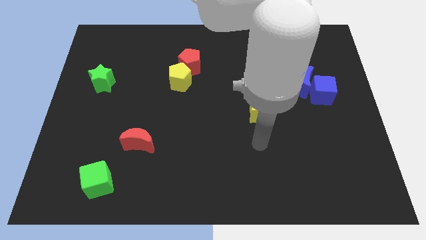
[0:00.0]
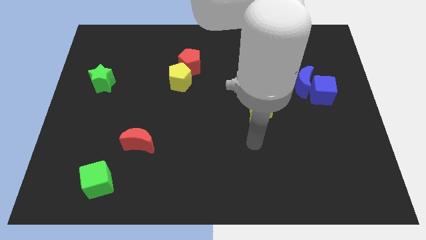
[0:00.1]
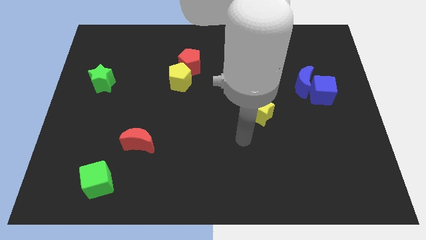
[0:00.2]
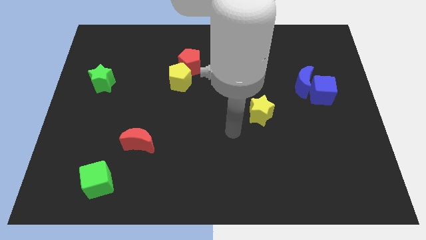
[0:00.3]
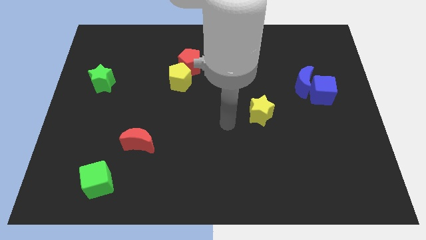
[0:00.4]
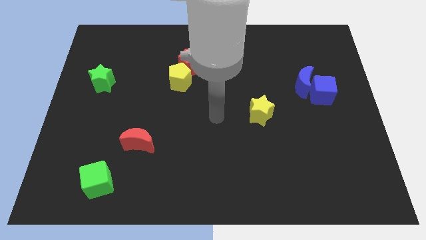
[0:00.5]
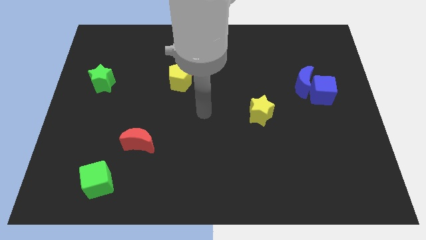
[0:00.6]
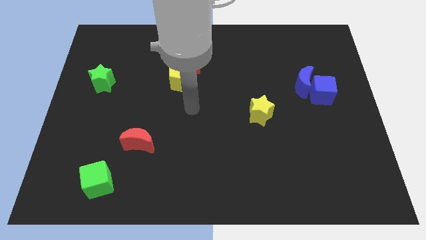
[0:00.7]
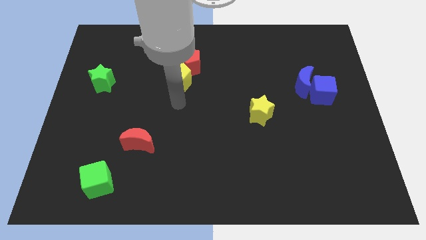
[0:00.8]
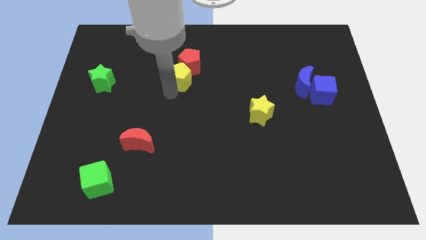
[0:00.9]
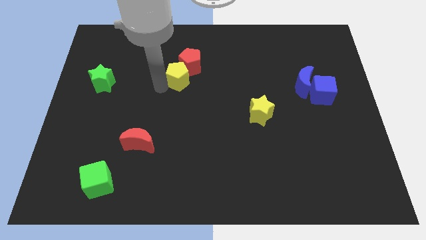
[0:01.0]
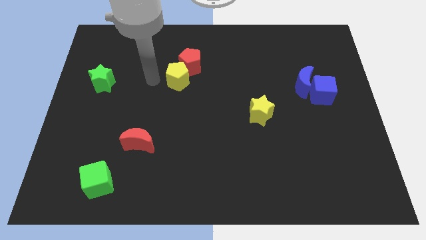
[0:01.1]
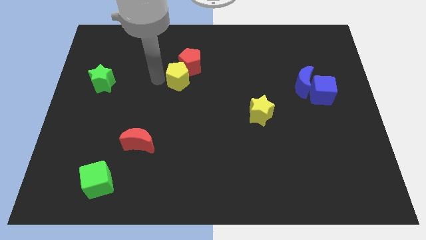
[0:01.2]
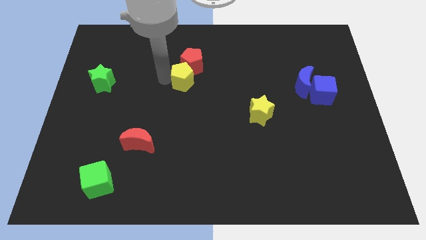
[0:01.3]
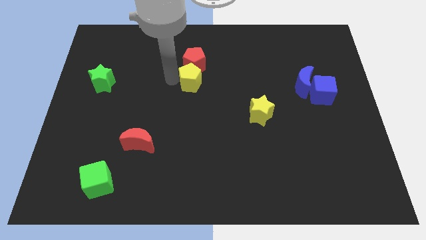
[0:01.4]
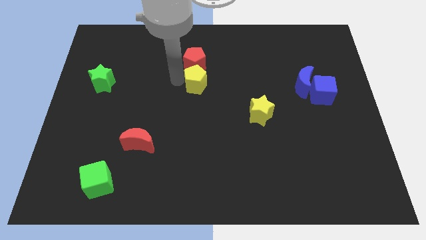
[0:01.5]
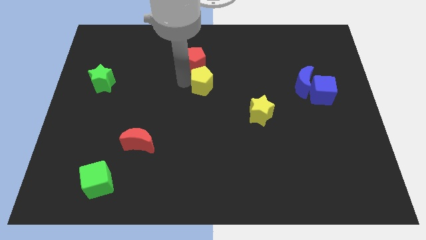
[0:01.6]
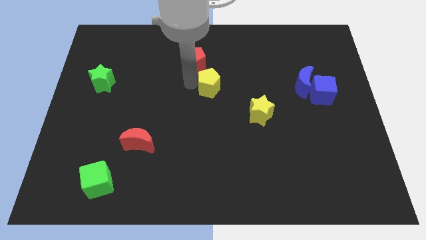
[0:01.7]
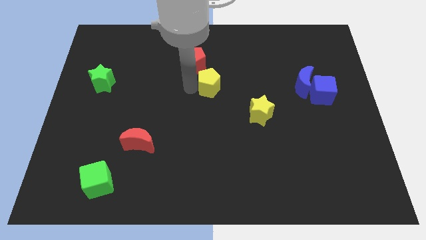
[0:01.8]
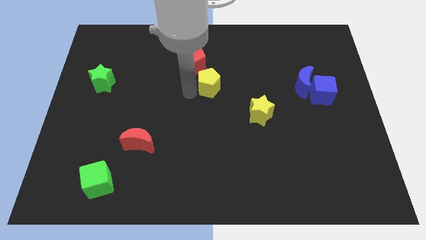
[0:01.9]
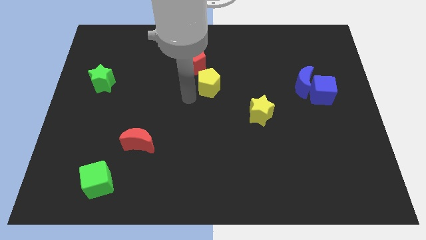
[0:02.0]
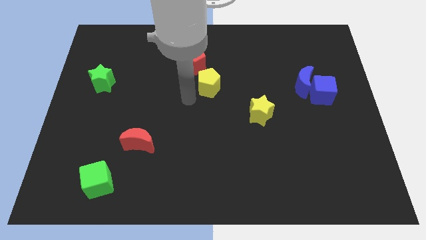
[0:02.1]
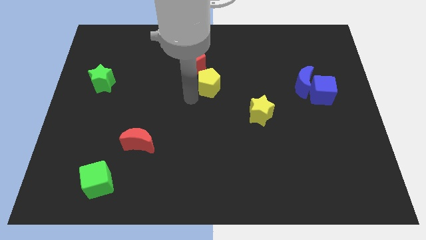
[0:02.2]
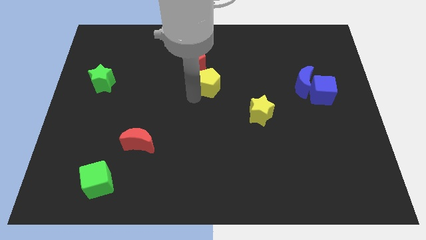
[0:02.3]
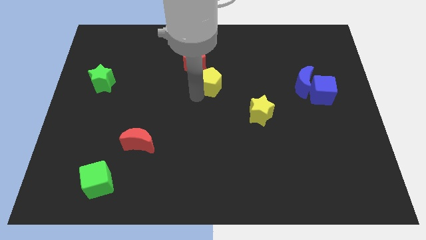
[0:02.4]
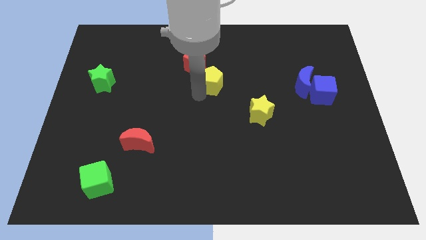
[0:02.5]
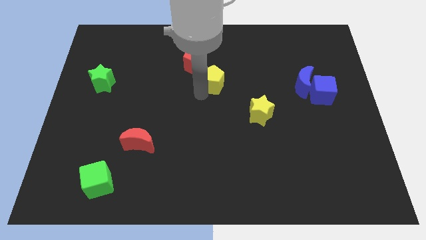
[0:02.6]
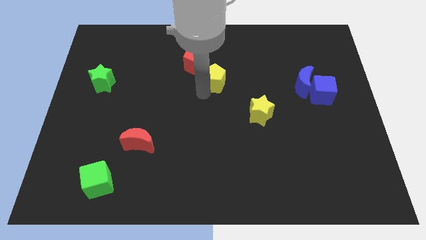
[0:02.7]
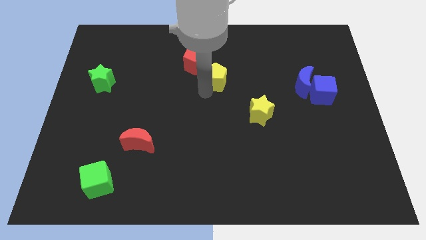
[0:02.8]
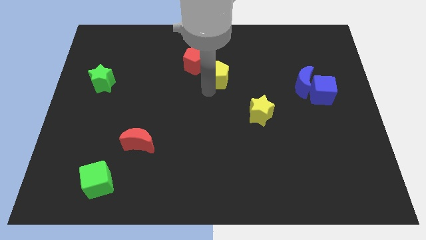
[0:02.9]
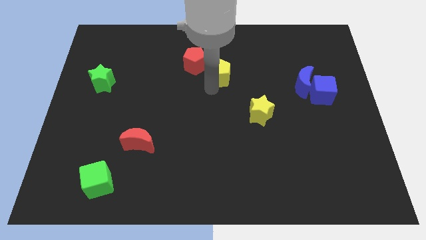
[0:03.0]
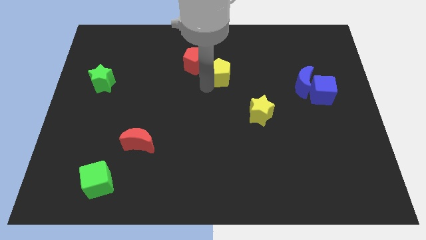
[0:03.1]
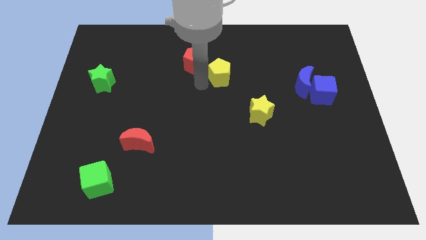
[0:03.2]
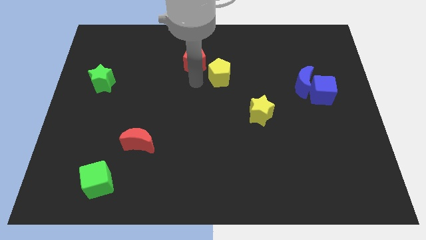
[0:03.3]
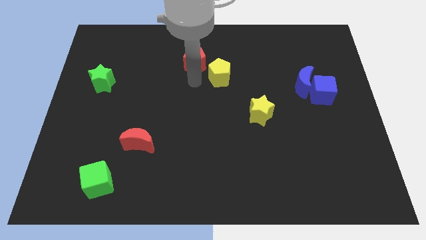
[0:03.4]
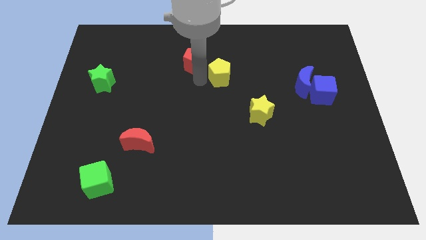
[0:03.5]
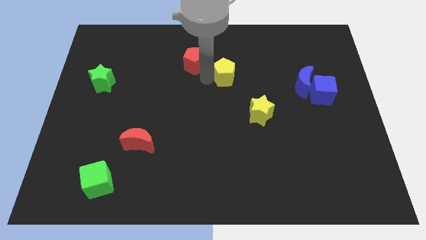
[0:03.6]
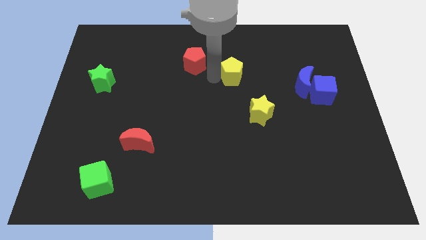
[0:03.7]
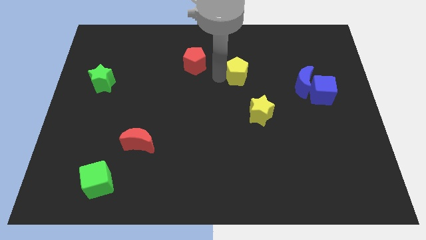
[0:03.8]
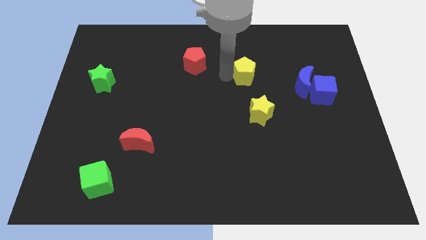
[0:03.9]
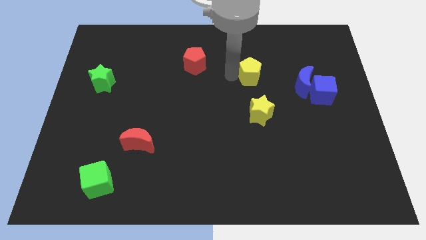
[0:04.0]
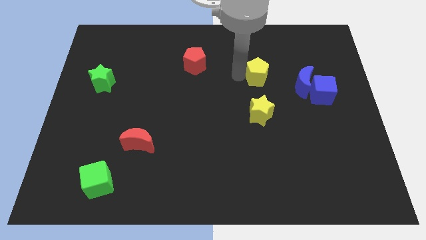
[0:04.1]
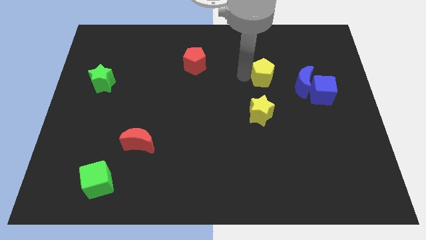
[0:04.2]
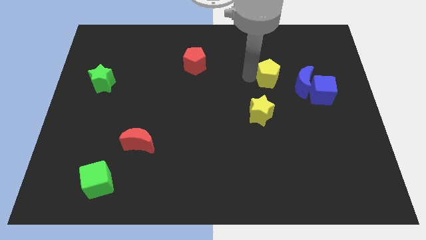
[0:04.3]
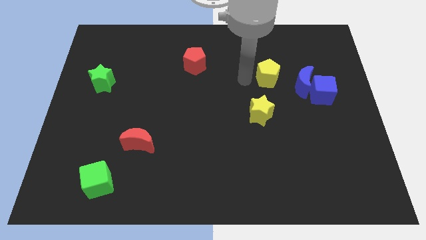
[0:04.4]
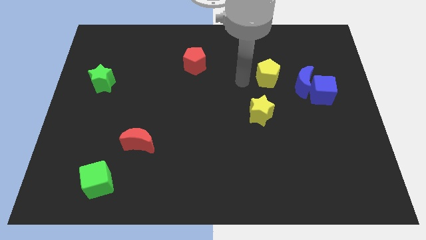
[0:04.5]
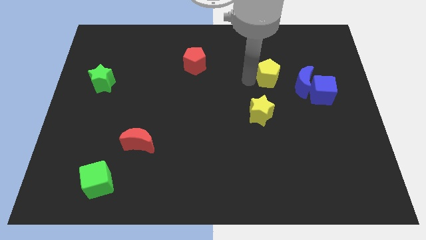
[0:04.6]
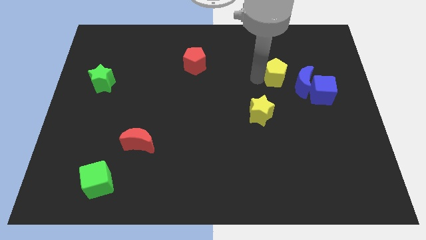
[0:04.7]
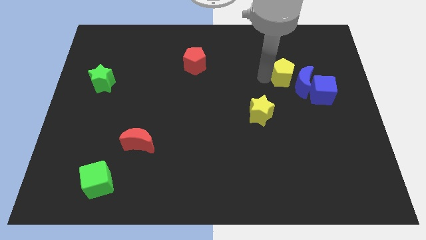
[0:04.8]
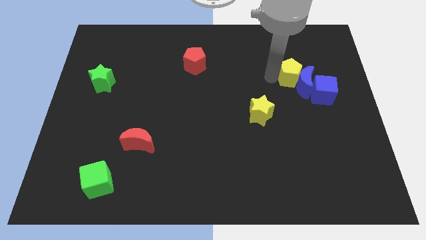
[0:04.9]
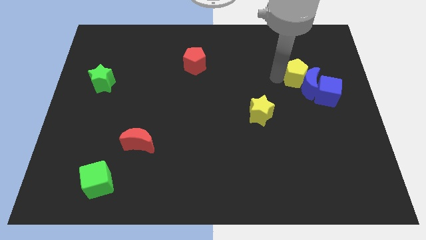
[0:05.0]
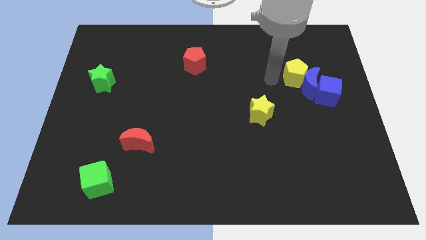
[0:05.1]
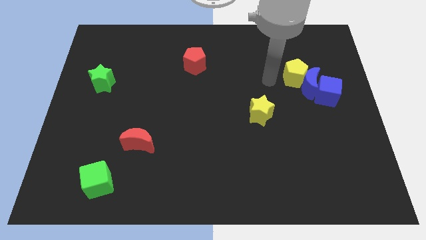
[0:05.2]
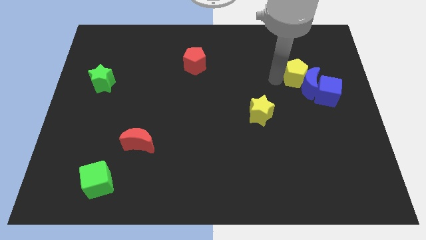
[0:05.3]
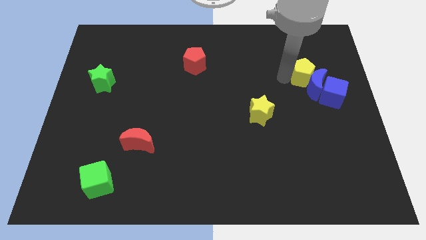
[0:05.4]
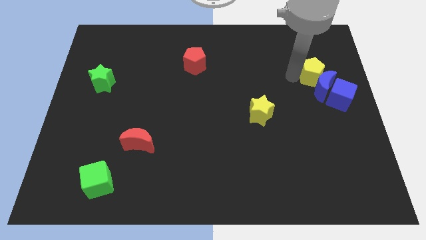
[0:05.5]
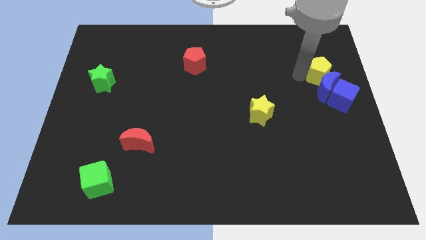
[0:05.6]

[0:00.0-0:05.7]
put the yellow pentagon to the top right of the blue moon

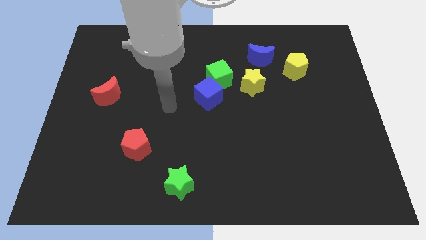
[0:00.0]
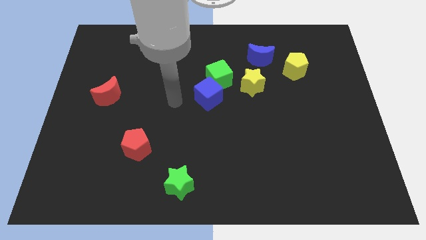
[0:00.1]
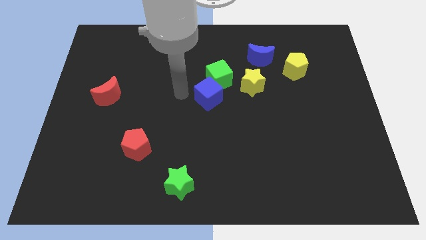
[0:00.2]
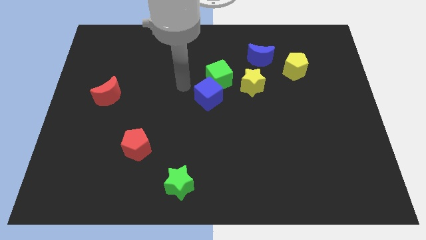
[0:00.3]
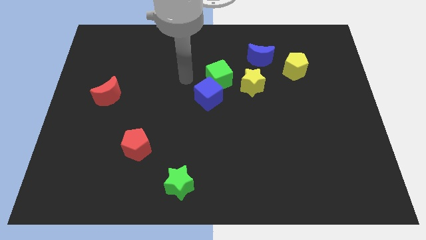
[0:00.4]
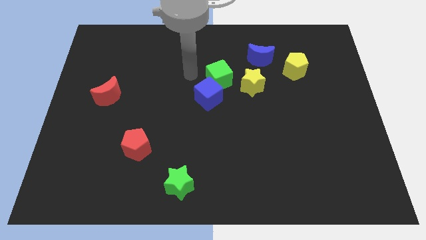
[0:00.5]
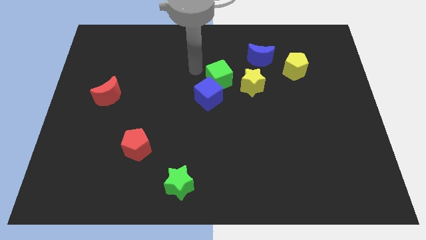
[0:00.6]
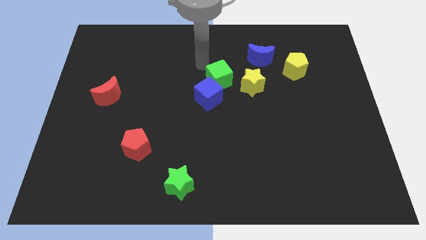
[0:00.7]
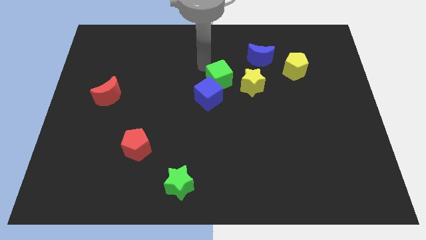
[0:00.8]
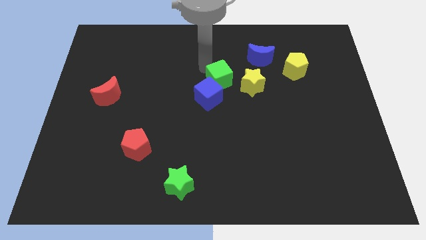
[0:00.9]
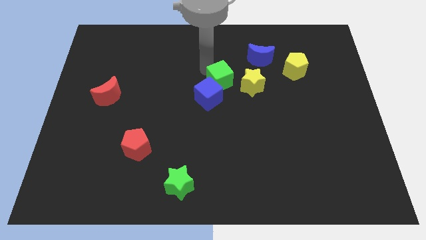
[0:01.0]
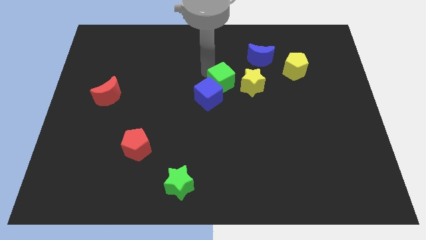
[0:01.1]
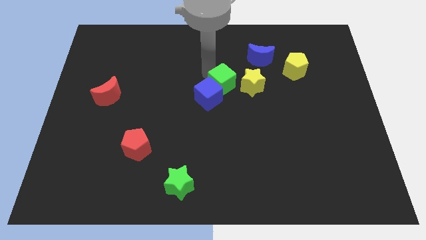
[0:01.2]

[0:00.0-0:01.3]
move the green cube to the right side of the blue cube
